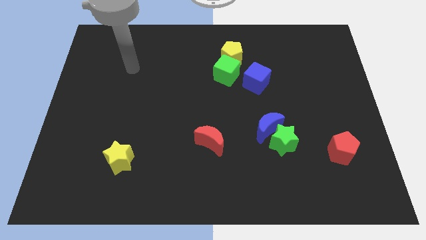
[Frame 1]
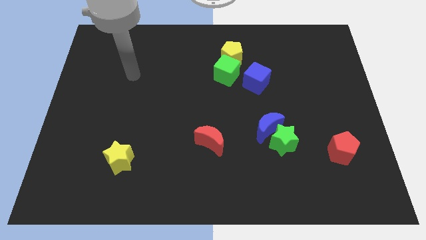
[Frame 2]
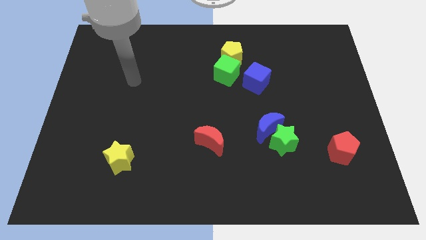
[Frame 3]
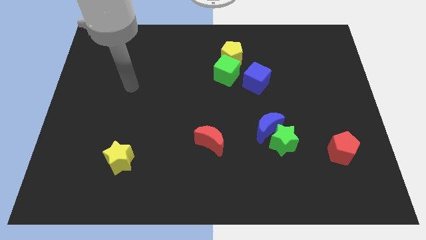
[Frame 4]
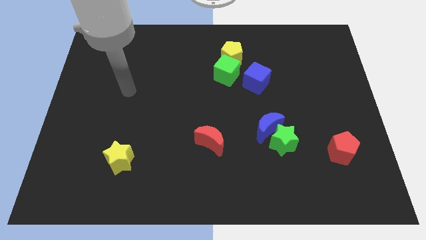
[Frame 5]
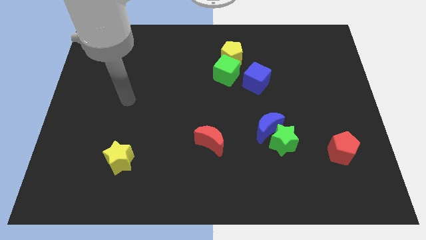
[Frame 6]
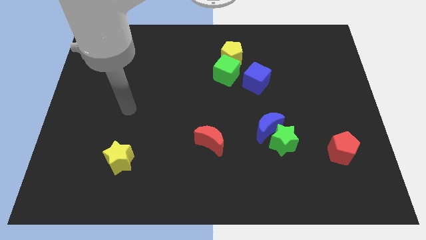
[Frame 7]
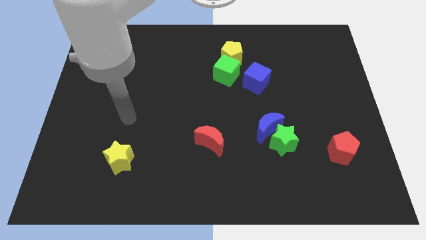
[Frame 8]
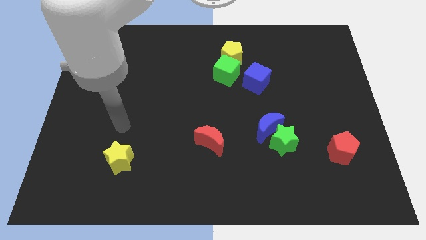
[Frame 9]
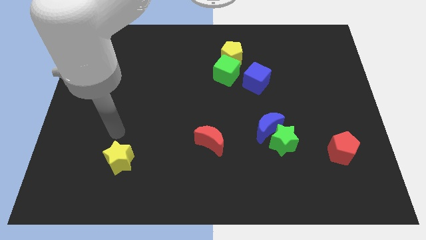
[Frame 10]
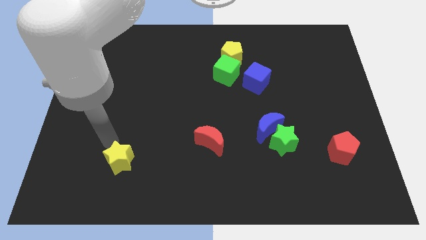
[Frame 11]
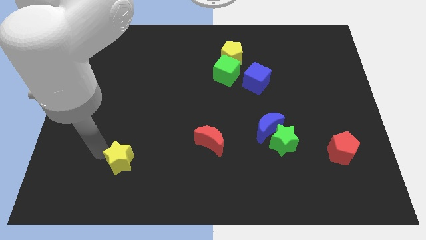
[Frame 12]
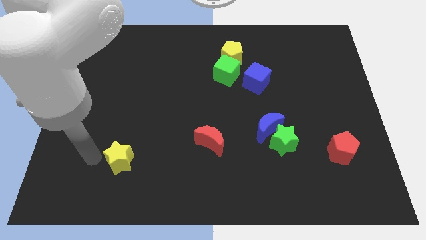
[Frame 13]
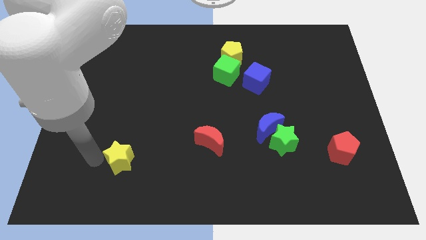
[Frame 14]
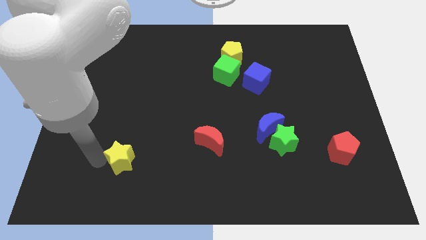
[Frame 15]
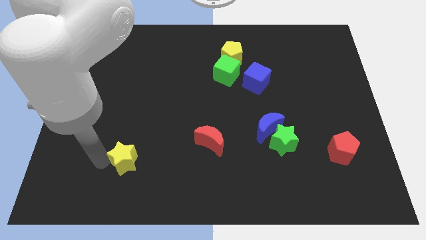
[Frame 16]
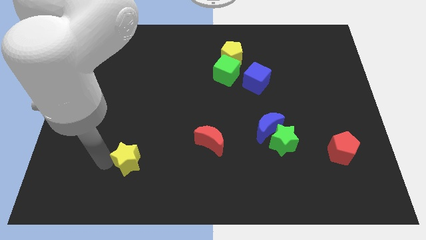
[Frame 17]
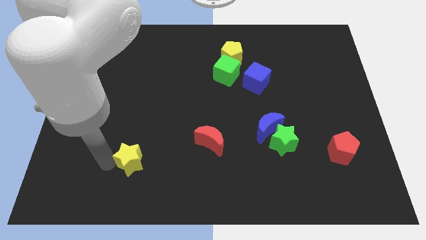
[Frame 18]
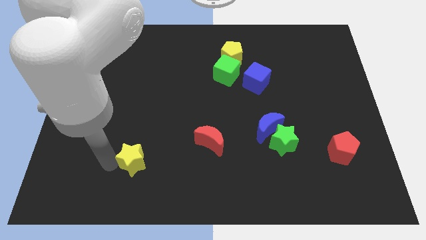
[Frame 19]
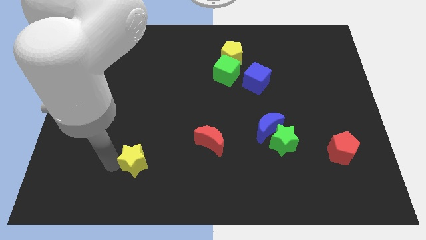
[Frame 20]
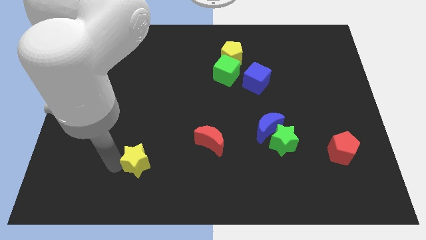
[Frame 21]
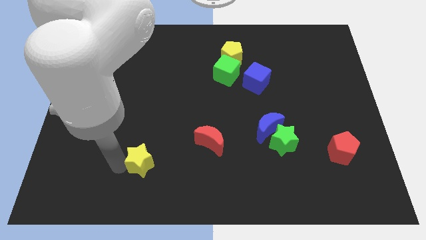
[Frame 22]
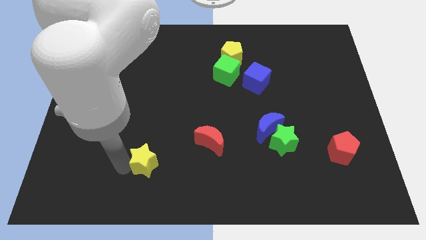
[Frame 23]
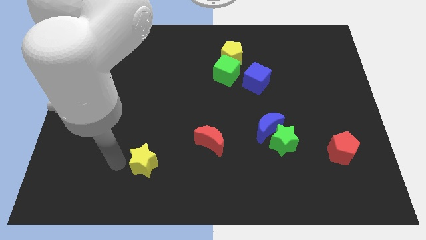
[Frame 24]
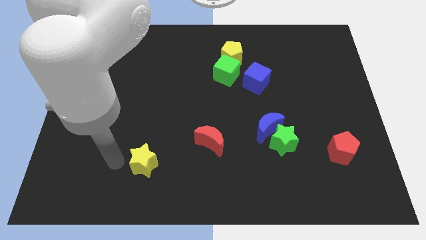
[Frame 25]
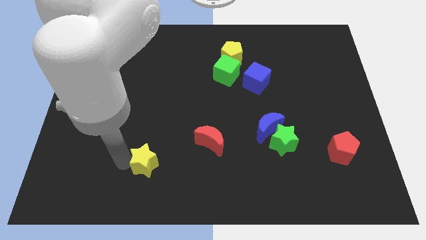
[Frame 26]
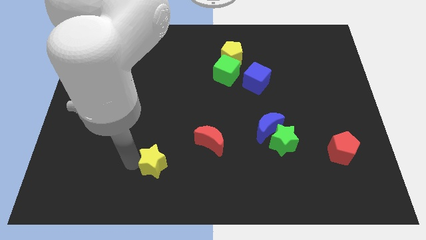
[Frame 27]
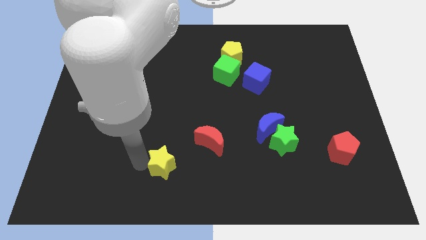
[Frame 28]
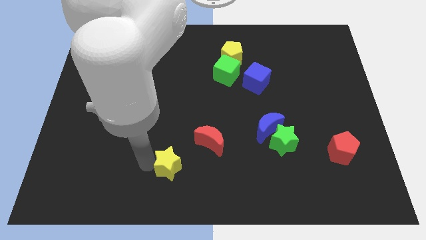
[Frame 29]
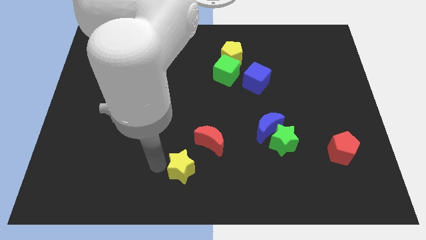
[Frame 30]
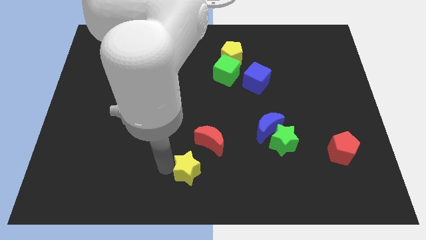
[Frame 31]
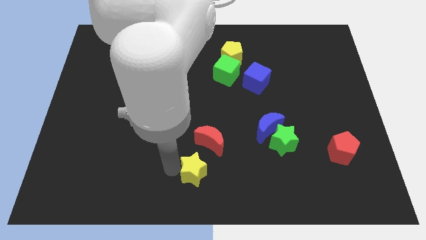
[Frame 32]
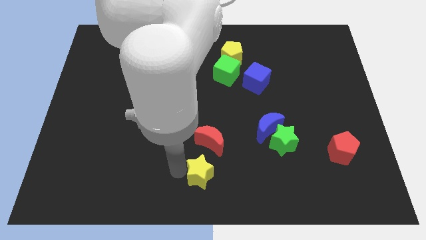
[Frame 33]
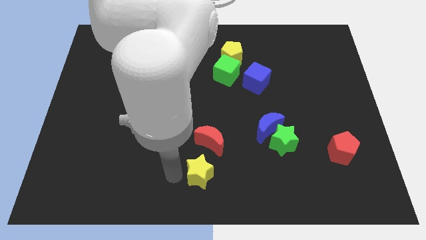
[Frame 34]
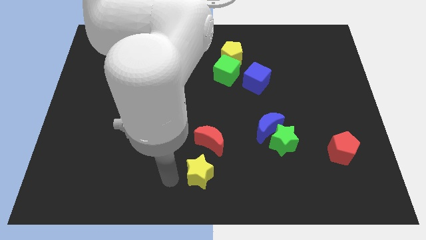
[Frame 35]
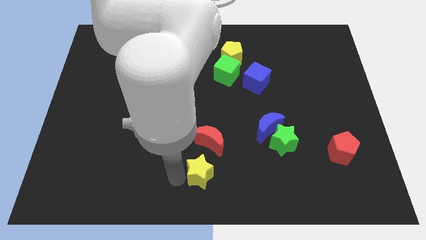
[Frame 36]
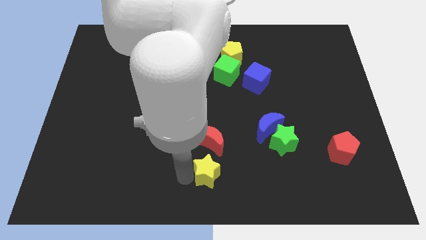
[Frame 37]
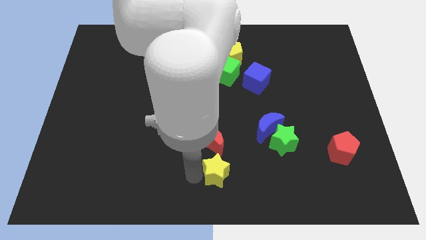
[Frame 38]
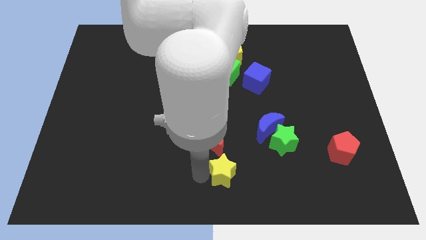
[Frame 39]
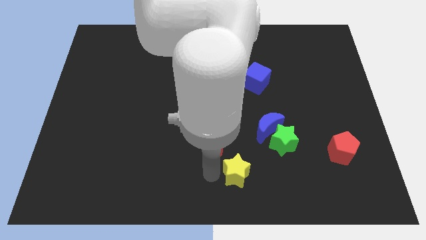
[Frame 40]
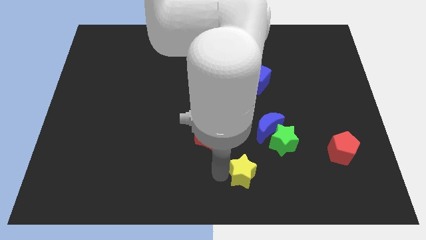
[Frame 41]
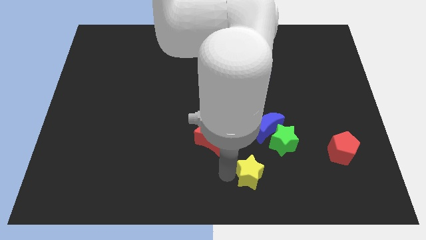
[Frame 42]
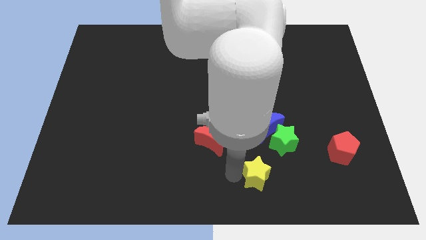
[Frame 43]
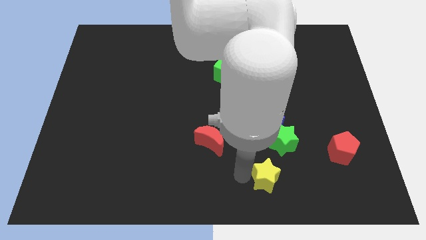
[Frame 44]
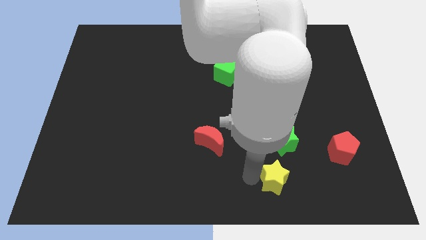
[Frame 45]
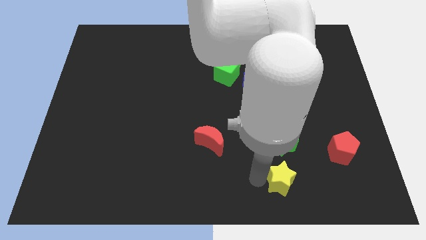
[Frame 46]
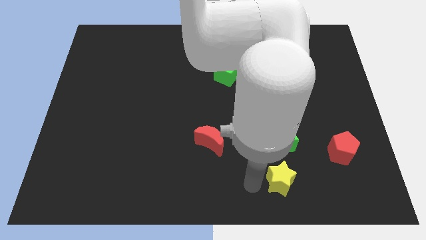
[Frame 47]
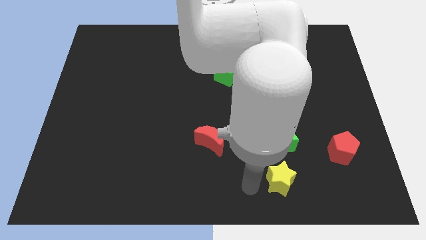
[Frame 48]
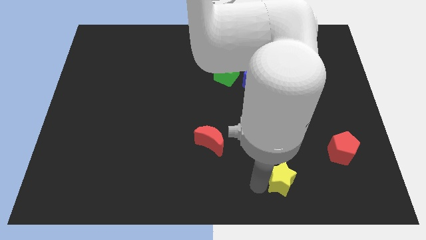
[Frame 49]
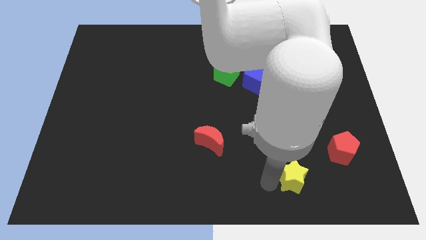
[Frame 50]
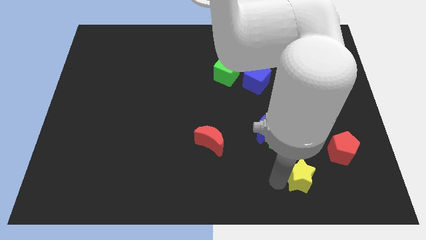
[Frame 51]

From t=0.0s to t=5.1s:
move the yellow star diagonally down and to the left of the red pentagon

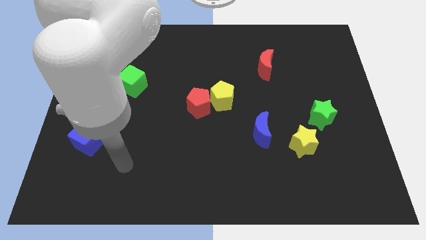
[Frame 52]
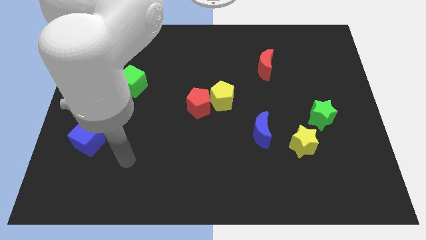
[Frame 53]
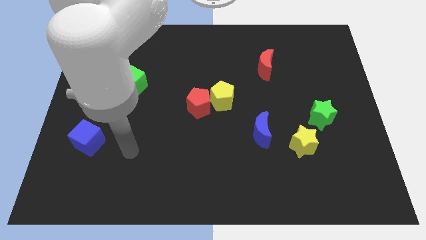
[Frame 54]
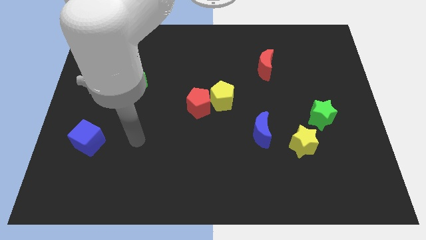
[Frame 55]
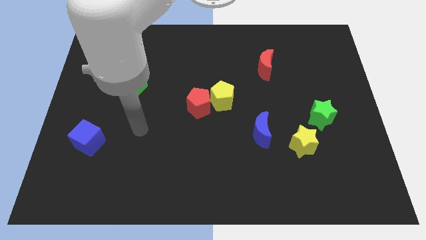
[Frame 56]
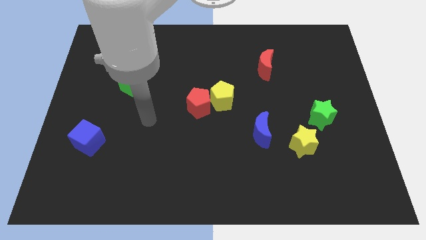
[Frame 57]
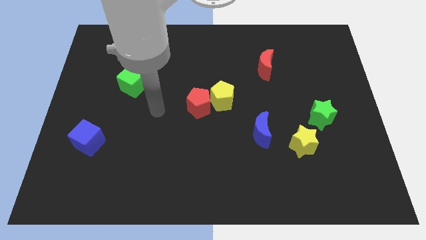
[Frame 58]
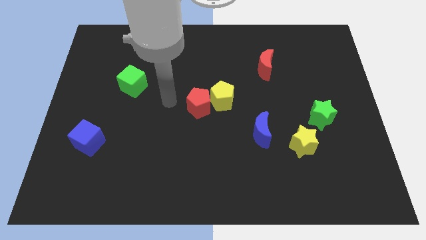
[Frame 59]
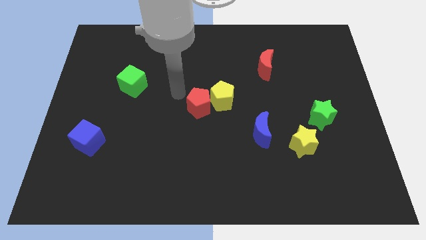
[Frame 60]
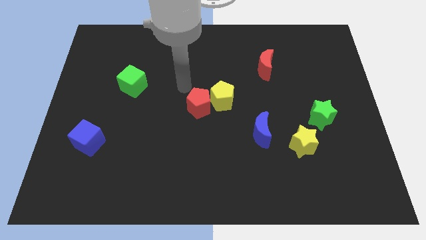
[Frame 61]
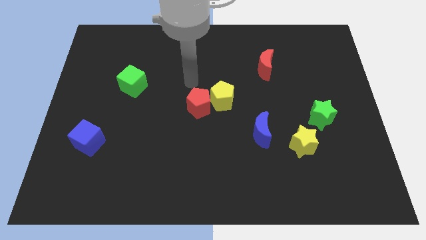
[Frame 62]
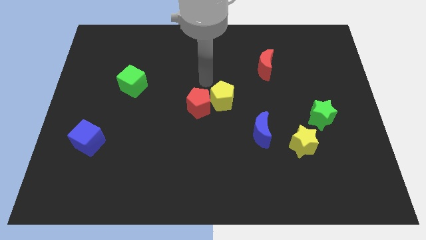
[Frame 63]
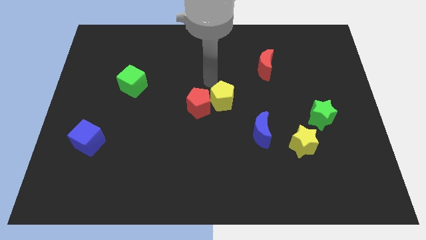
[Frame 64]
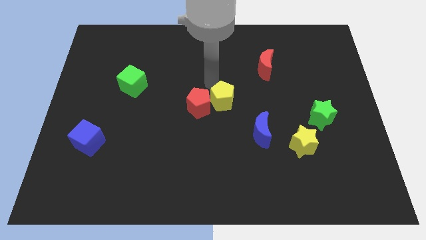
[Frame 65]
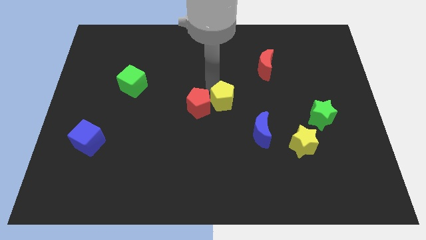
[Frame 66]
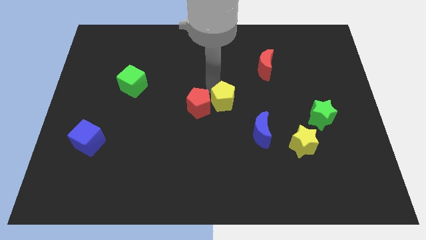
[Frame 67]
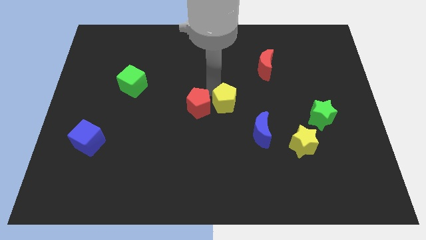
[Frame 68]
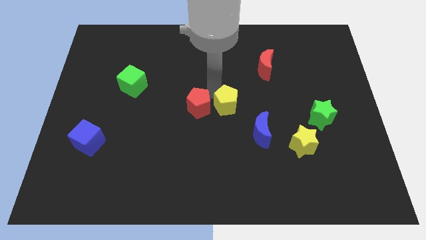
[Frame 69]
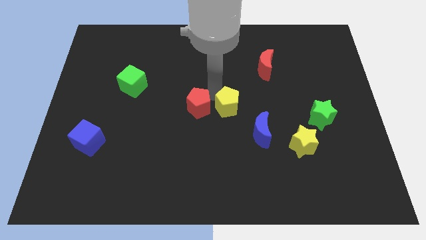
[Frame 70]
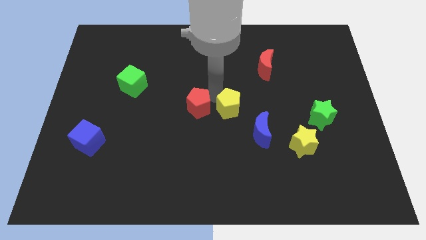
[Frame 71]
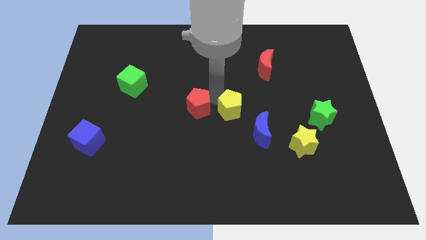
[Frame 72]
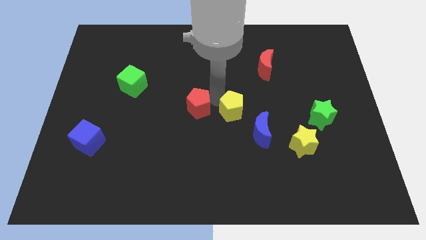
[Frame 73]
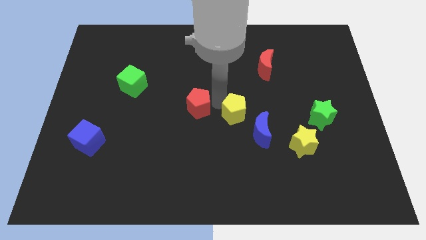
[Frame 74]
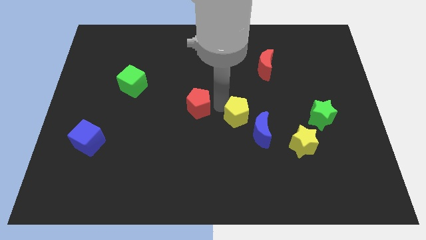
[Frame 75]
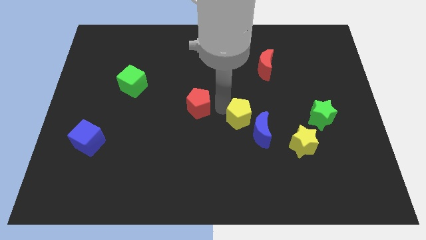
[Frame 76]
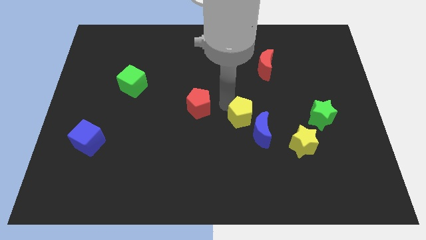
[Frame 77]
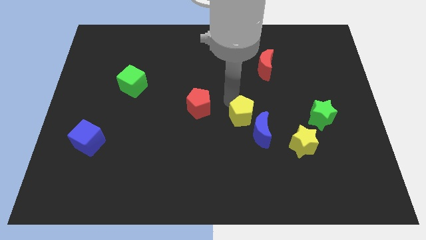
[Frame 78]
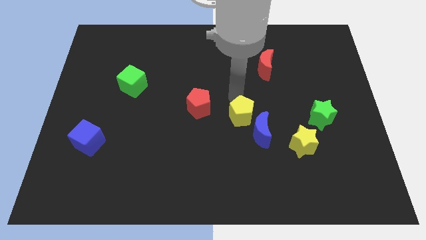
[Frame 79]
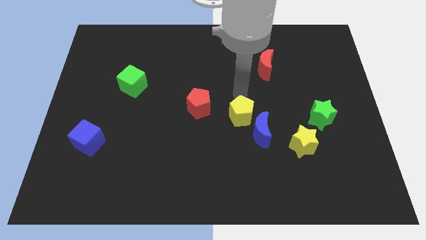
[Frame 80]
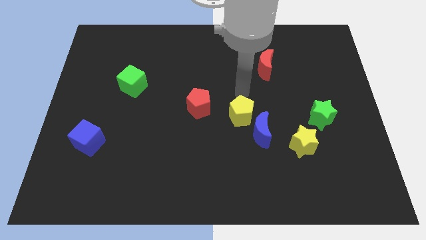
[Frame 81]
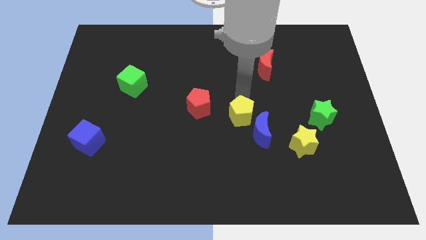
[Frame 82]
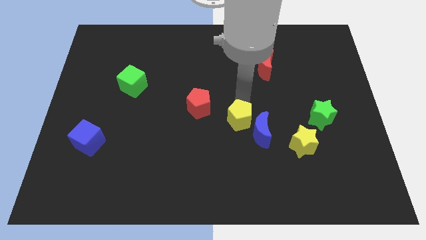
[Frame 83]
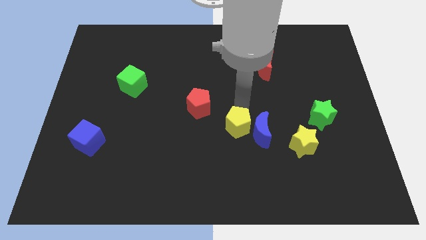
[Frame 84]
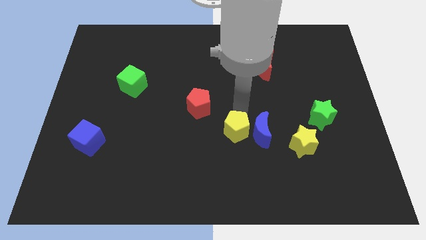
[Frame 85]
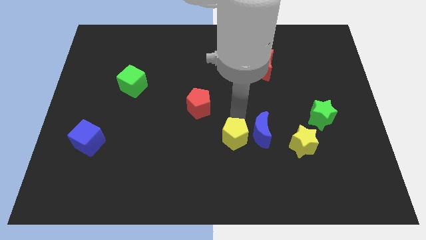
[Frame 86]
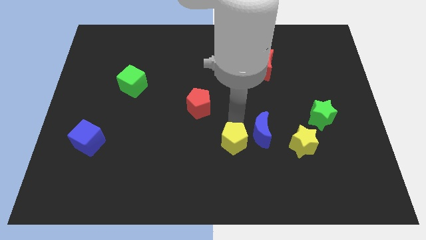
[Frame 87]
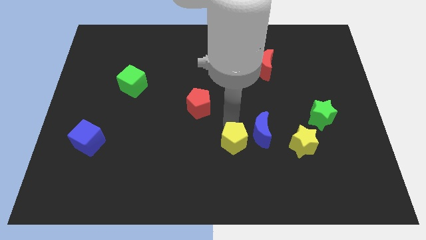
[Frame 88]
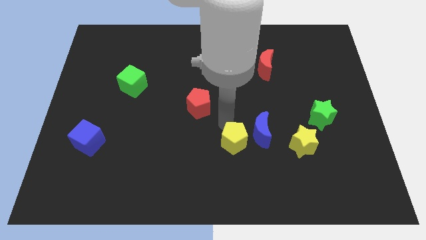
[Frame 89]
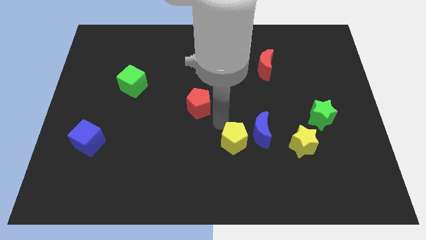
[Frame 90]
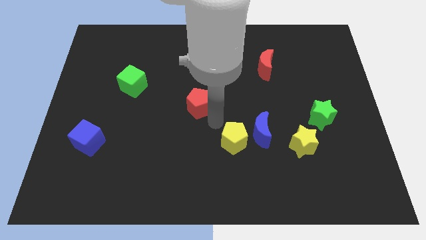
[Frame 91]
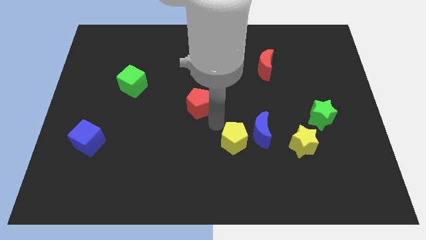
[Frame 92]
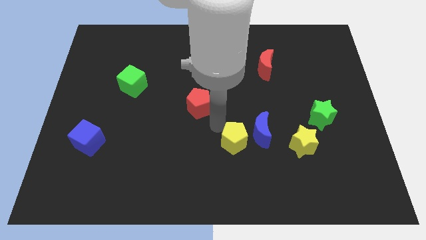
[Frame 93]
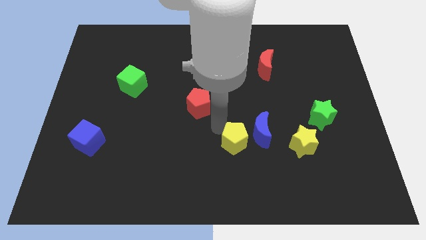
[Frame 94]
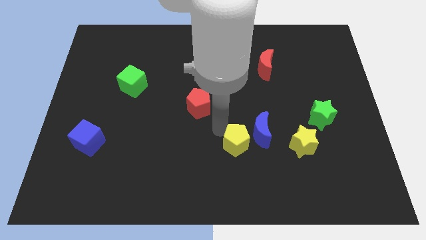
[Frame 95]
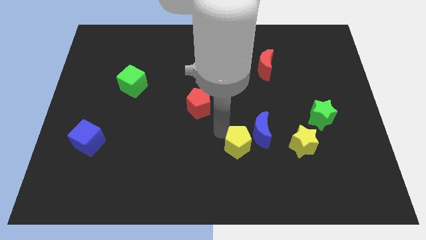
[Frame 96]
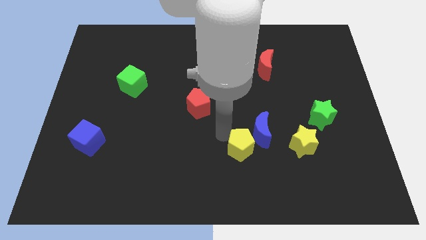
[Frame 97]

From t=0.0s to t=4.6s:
put the yellow pentagon to the bottom of the blue moon
